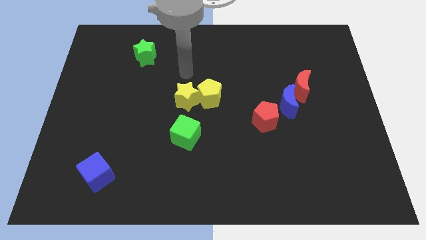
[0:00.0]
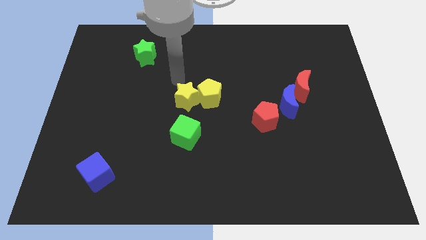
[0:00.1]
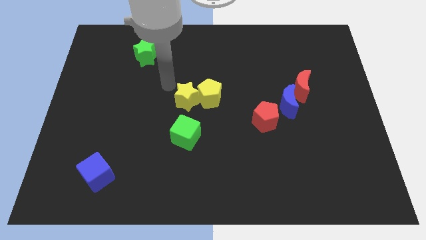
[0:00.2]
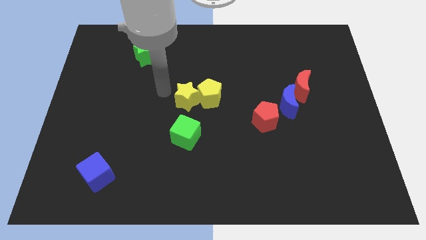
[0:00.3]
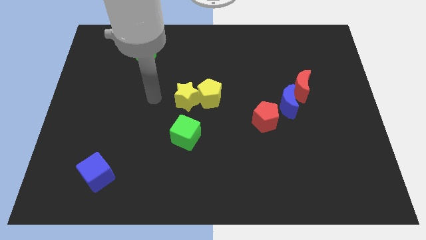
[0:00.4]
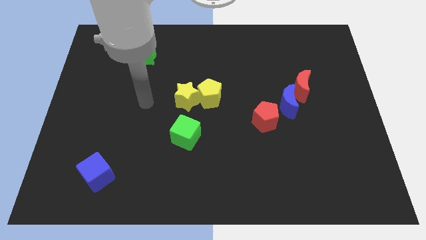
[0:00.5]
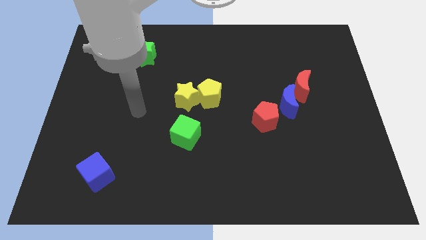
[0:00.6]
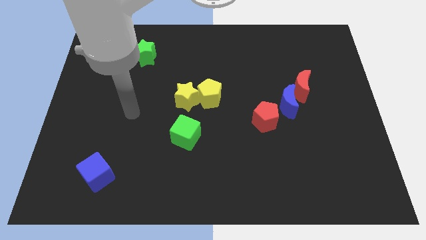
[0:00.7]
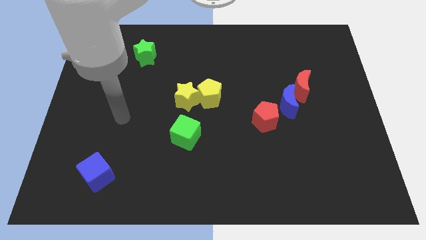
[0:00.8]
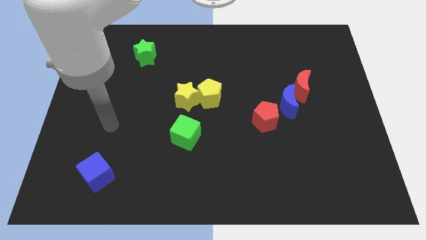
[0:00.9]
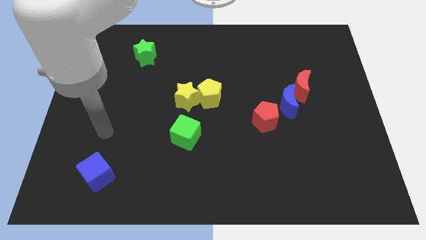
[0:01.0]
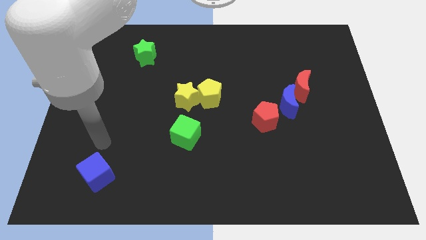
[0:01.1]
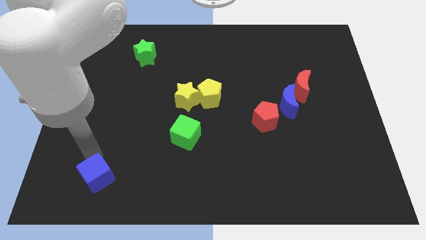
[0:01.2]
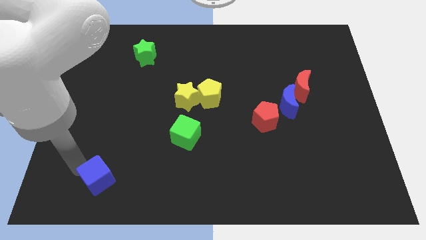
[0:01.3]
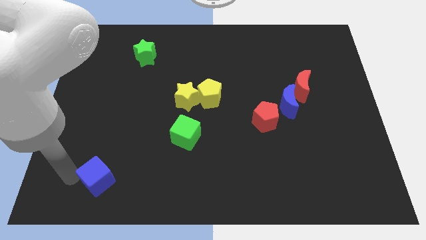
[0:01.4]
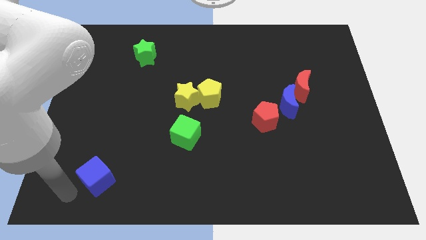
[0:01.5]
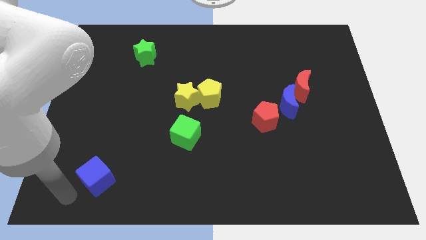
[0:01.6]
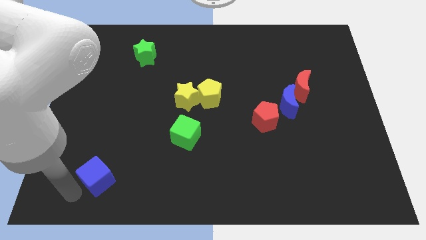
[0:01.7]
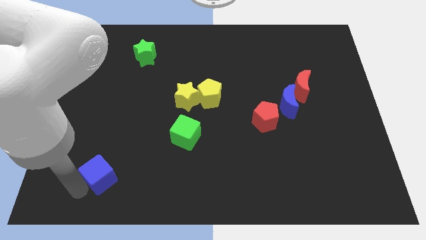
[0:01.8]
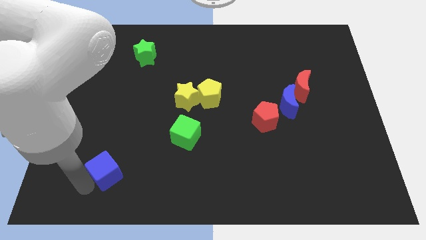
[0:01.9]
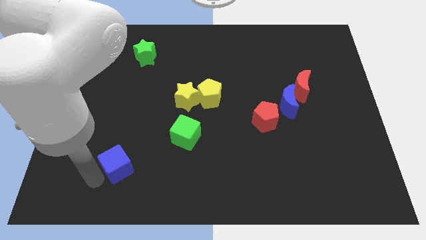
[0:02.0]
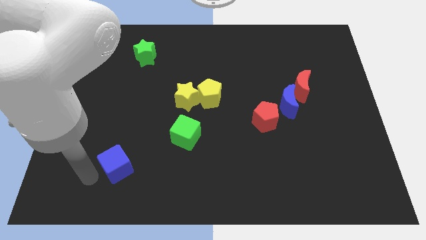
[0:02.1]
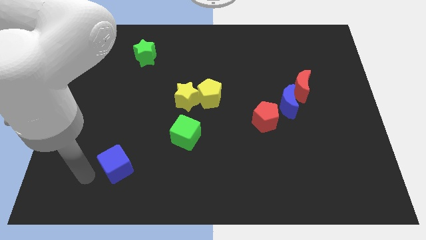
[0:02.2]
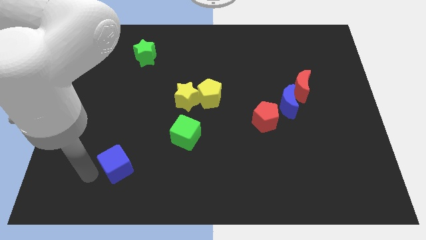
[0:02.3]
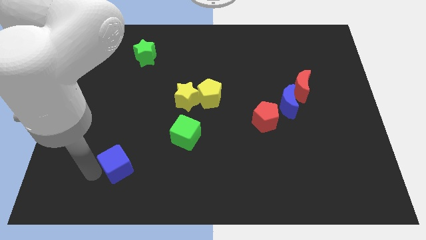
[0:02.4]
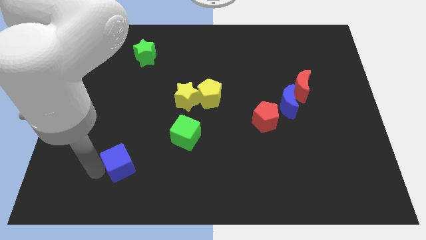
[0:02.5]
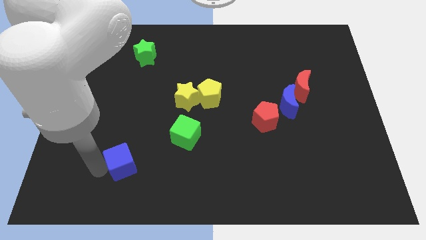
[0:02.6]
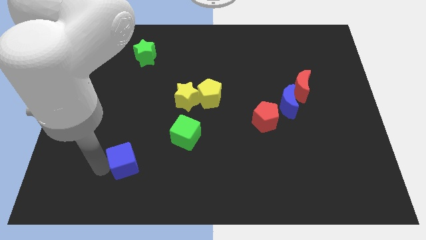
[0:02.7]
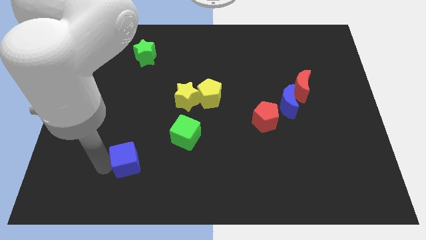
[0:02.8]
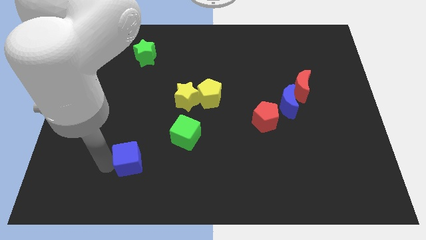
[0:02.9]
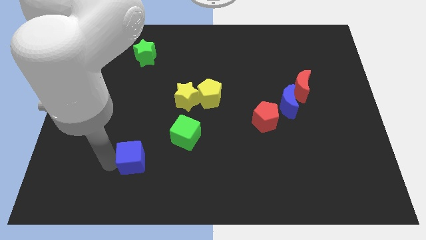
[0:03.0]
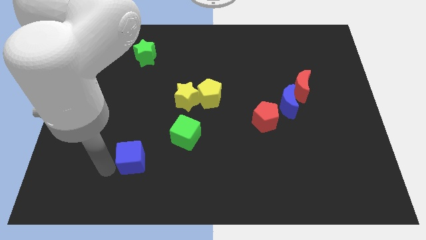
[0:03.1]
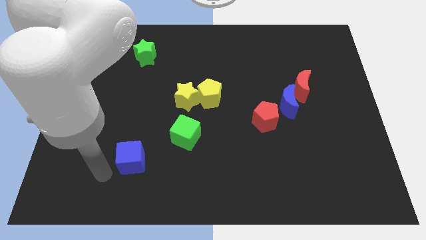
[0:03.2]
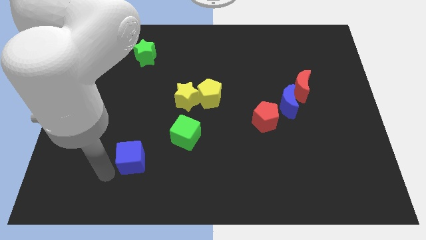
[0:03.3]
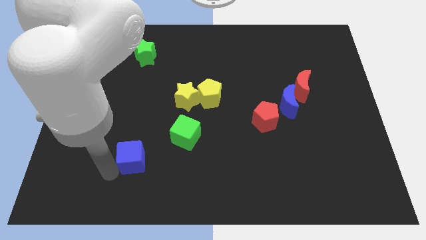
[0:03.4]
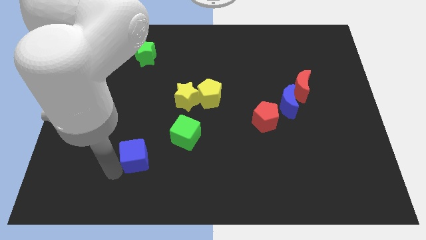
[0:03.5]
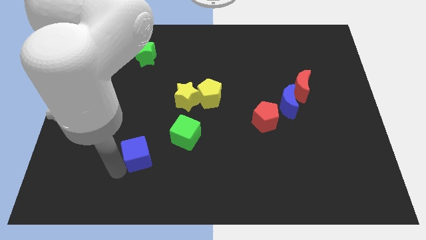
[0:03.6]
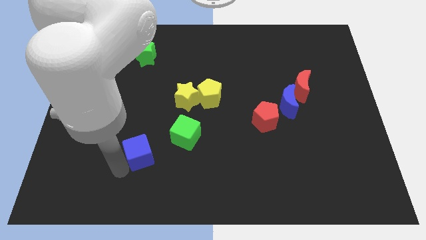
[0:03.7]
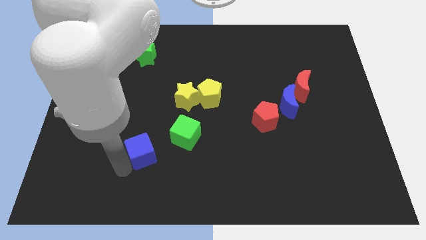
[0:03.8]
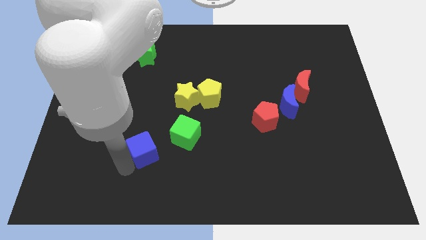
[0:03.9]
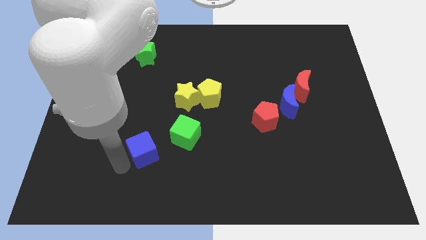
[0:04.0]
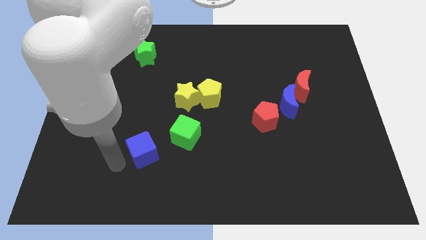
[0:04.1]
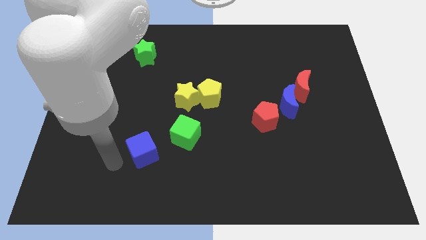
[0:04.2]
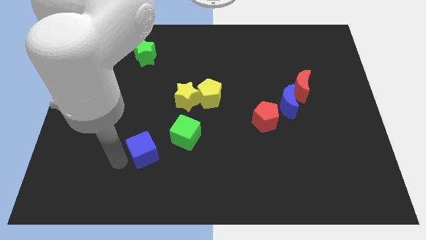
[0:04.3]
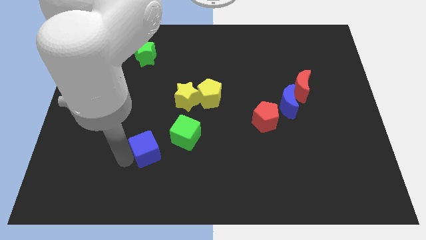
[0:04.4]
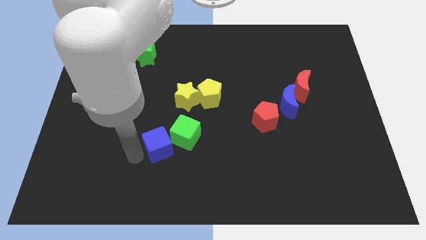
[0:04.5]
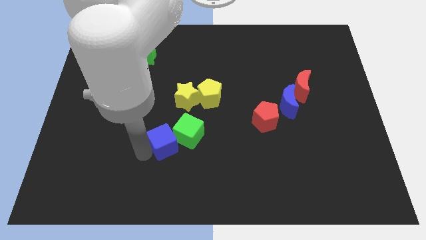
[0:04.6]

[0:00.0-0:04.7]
push the blue cube towards the green cube

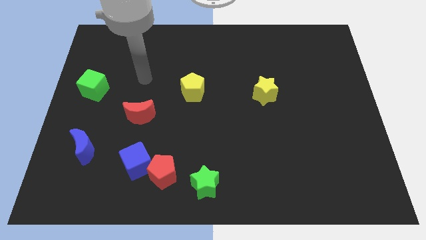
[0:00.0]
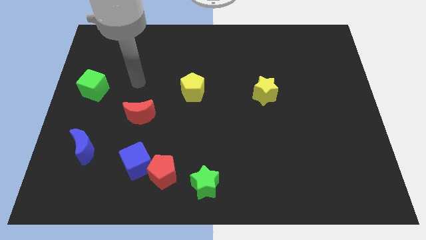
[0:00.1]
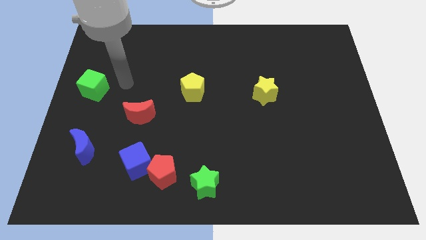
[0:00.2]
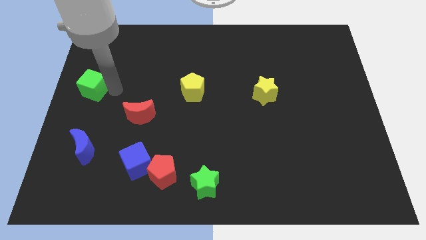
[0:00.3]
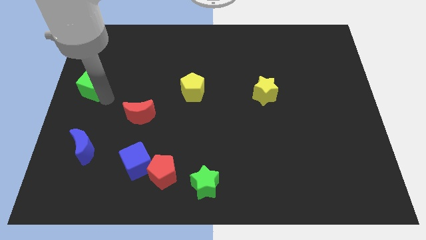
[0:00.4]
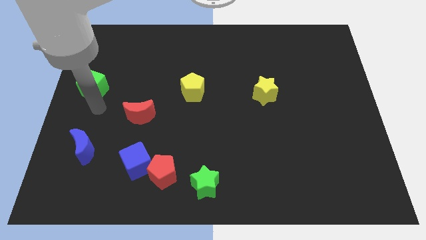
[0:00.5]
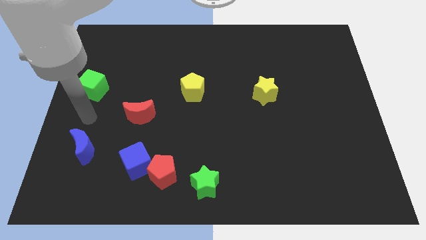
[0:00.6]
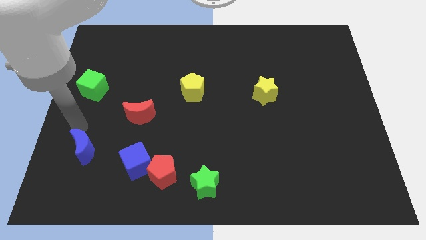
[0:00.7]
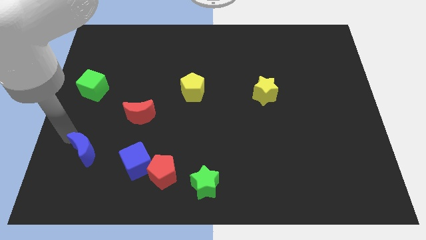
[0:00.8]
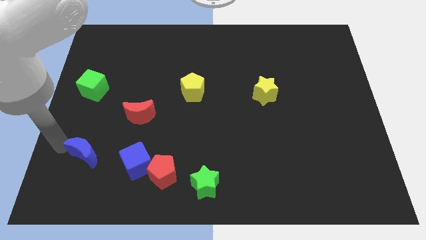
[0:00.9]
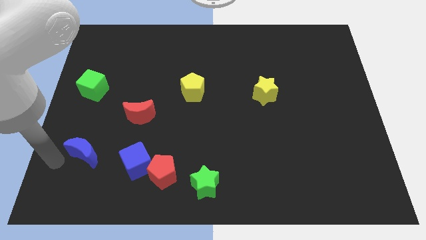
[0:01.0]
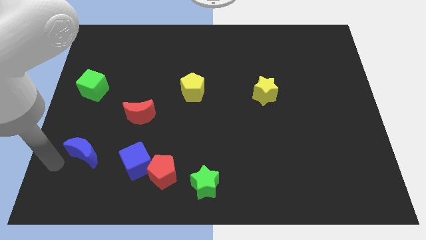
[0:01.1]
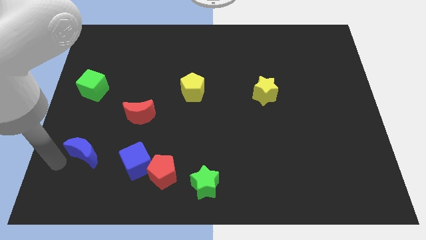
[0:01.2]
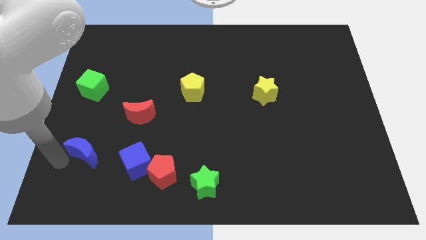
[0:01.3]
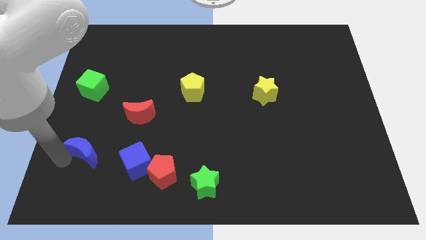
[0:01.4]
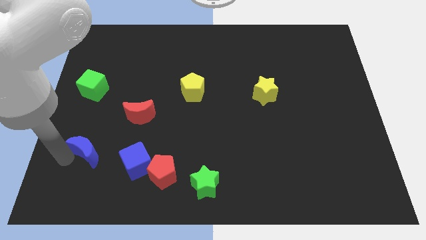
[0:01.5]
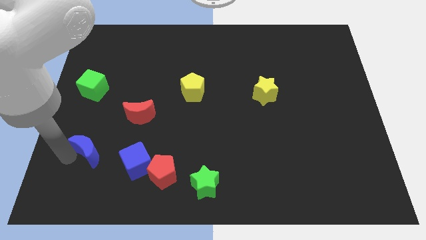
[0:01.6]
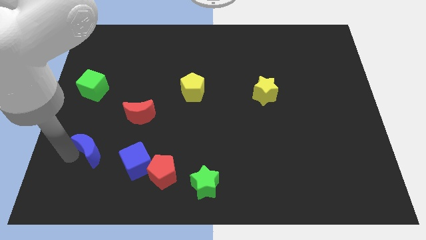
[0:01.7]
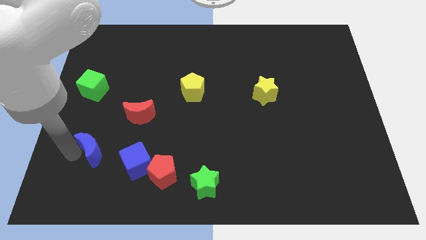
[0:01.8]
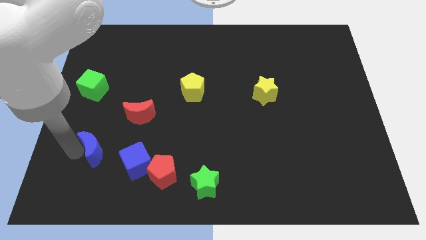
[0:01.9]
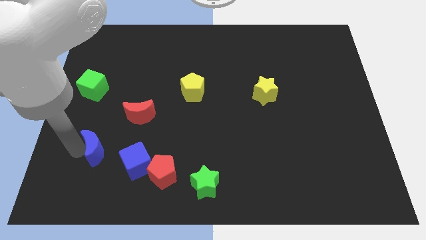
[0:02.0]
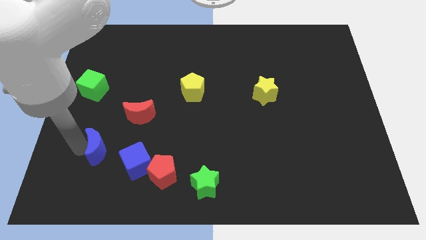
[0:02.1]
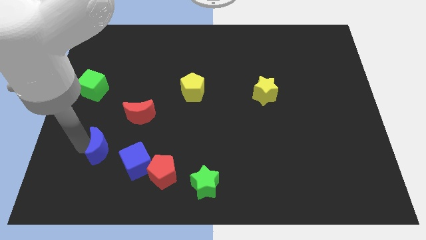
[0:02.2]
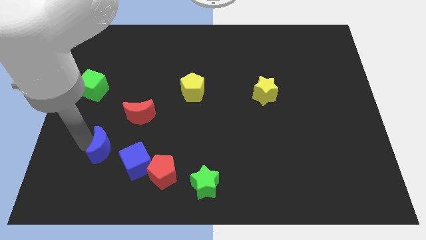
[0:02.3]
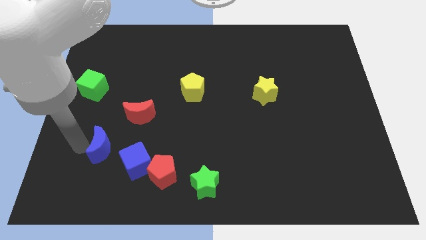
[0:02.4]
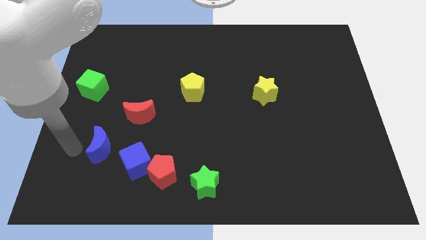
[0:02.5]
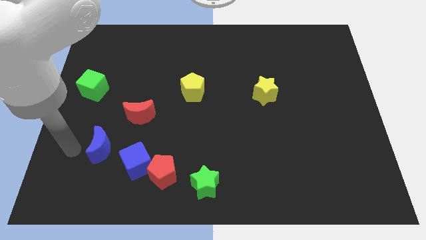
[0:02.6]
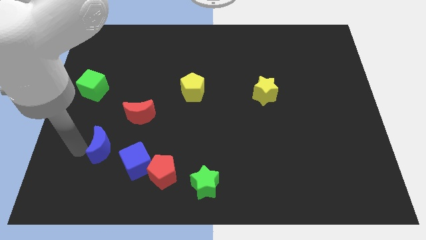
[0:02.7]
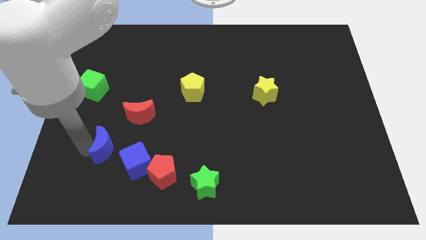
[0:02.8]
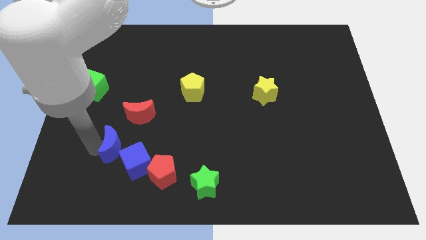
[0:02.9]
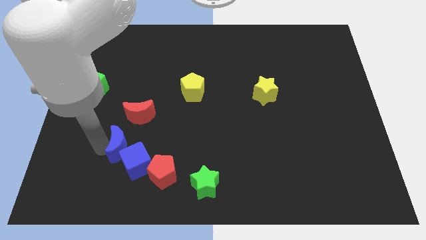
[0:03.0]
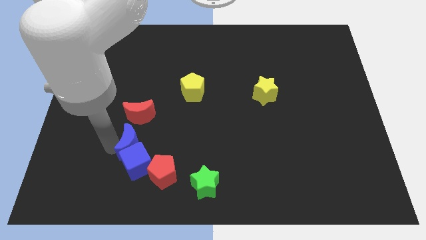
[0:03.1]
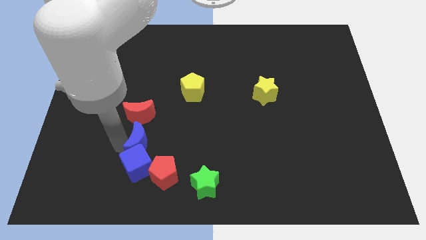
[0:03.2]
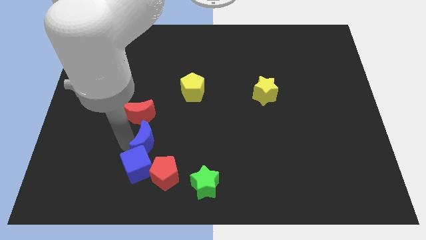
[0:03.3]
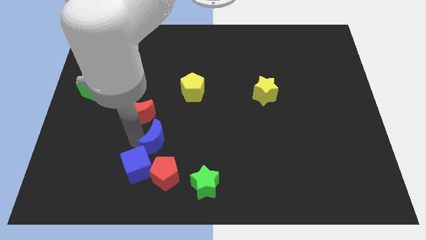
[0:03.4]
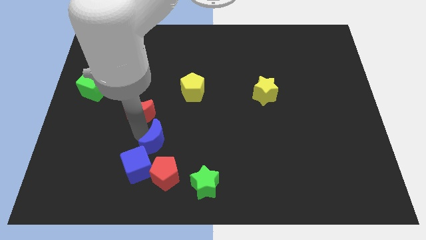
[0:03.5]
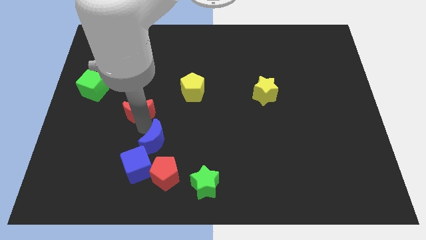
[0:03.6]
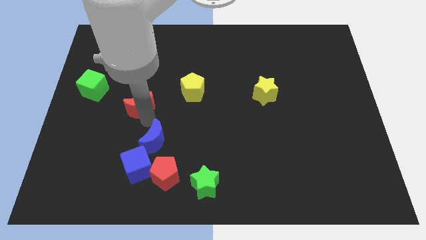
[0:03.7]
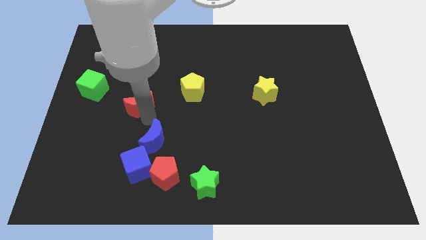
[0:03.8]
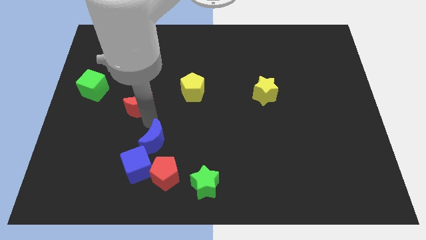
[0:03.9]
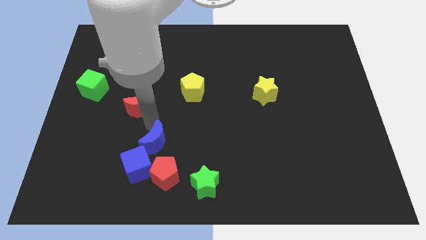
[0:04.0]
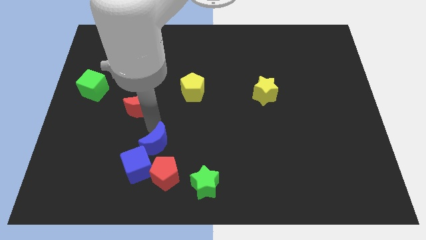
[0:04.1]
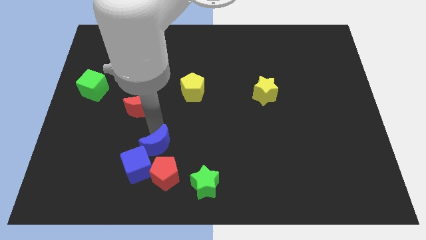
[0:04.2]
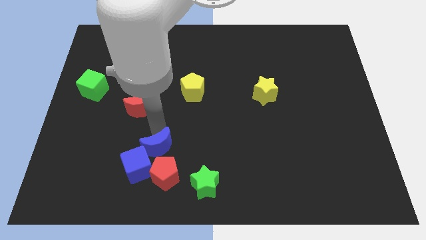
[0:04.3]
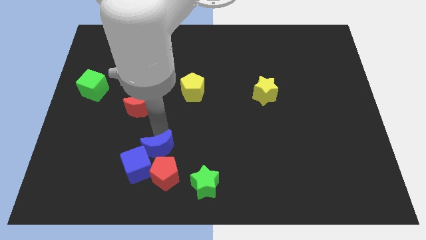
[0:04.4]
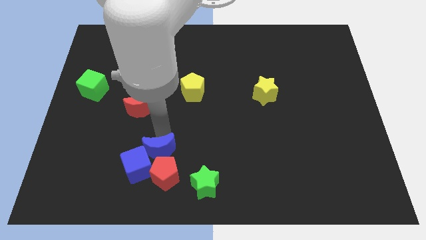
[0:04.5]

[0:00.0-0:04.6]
move the blue moon to the red pentagon
